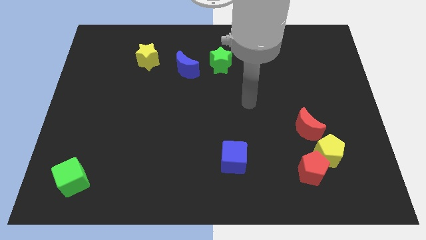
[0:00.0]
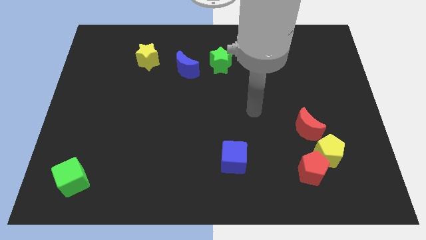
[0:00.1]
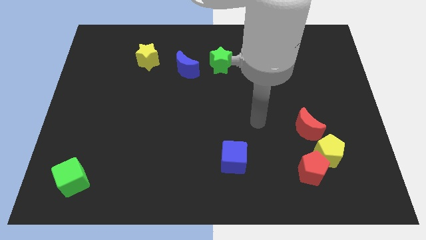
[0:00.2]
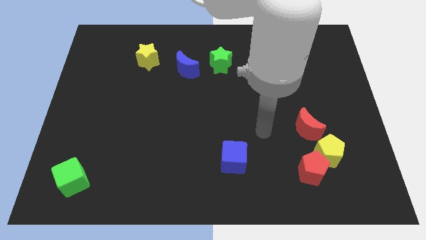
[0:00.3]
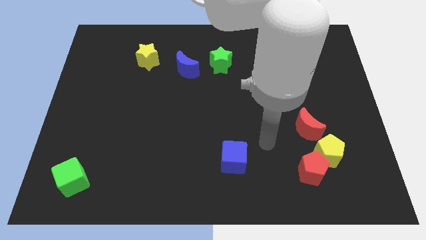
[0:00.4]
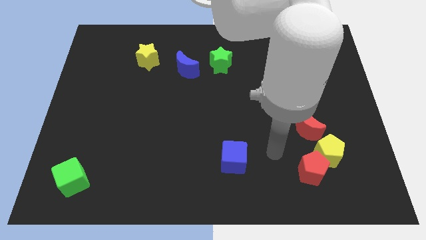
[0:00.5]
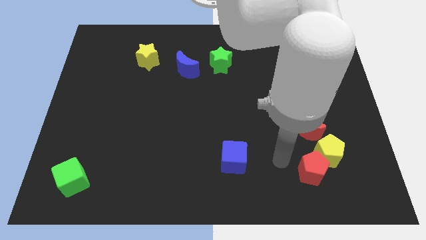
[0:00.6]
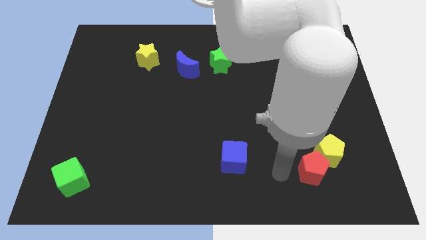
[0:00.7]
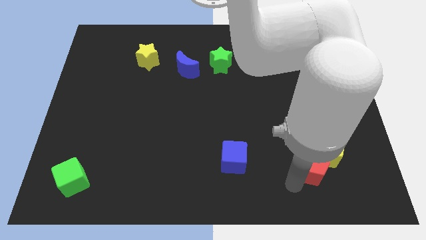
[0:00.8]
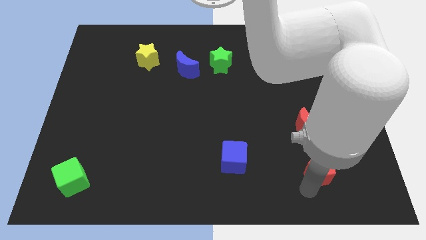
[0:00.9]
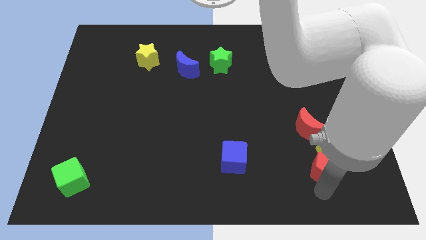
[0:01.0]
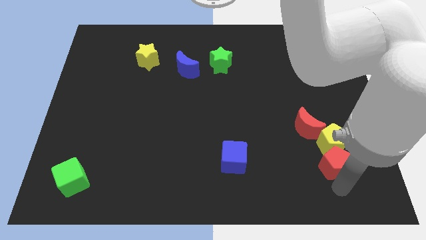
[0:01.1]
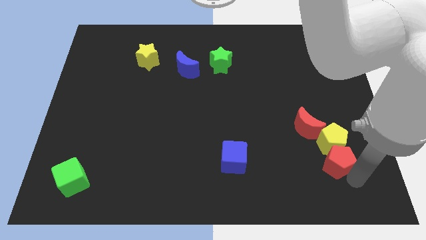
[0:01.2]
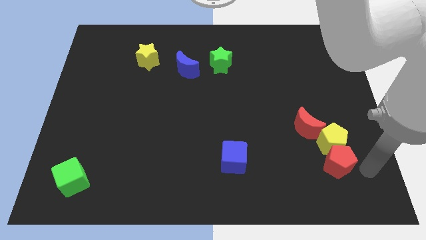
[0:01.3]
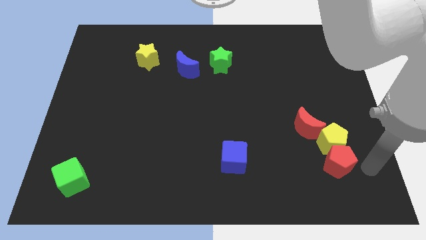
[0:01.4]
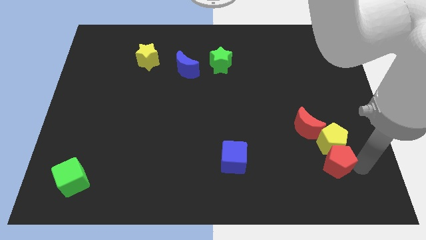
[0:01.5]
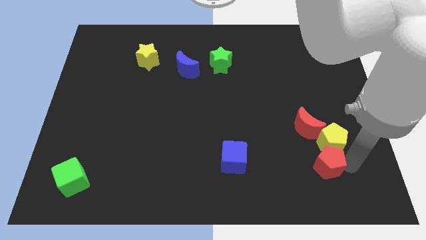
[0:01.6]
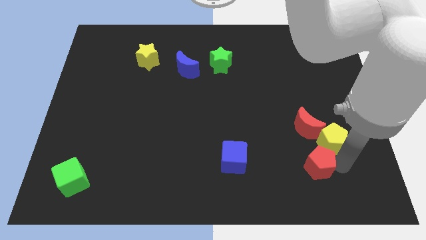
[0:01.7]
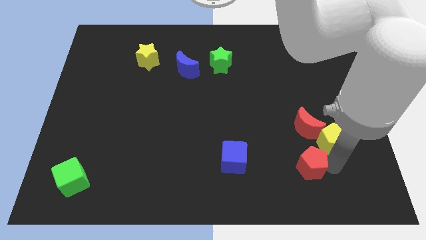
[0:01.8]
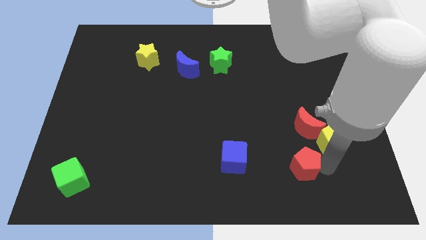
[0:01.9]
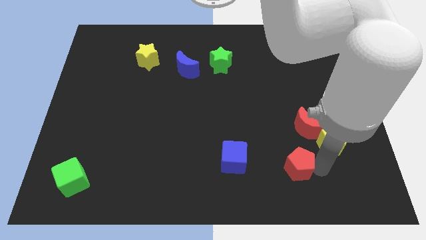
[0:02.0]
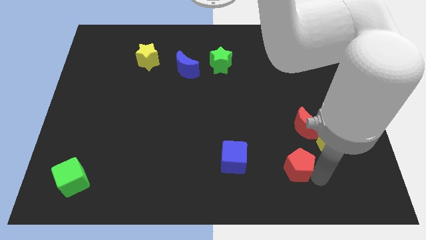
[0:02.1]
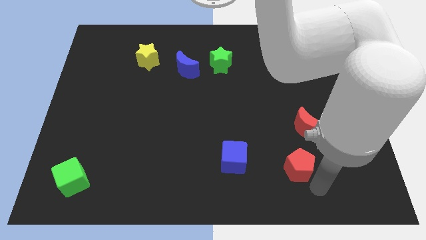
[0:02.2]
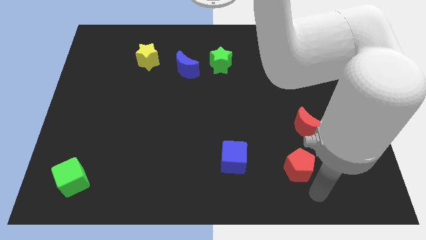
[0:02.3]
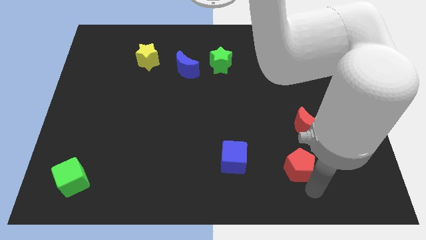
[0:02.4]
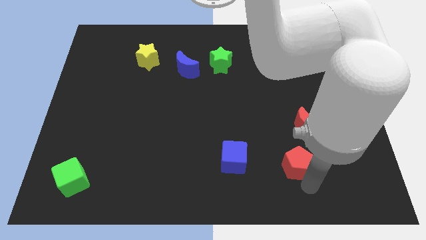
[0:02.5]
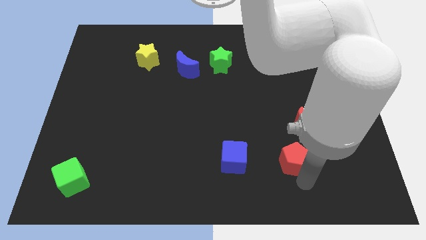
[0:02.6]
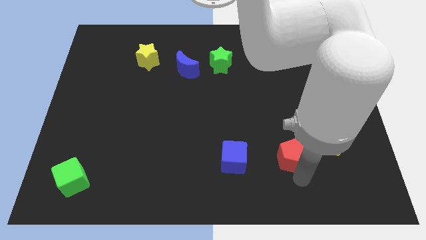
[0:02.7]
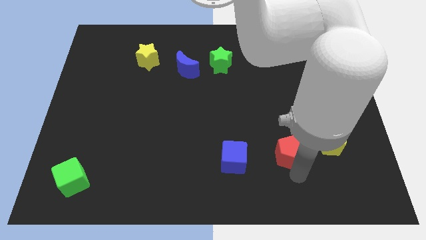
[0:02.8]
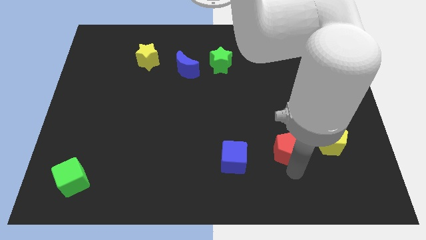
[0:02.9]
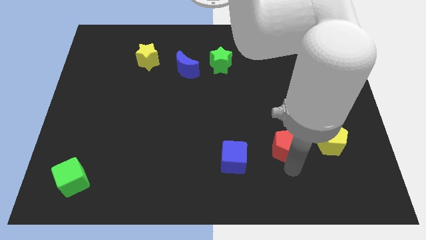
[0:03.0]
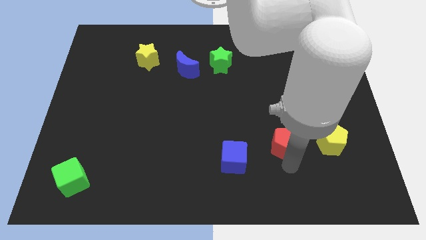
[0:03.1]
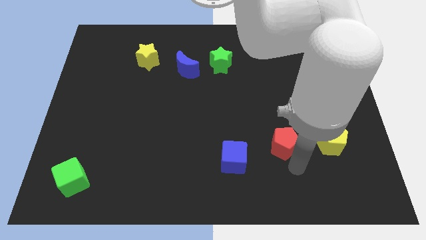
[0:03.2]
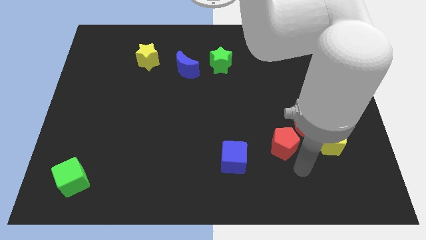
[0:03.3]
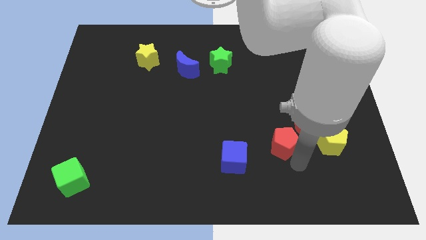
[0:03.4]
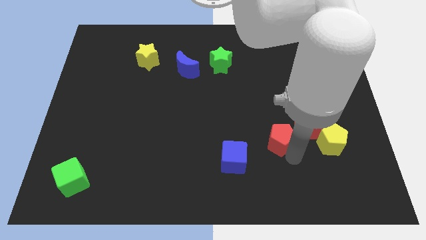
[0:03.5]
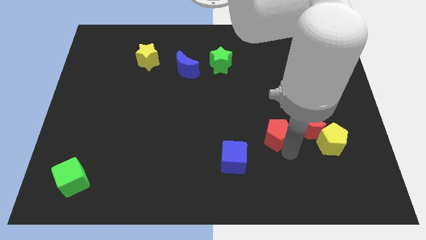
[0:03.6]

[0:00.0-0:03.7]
slightly move the red pentagon upwards

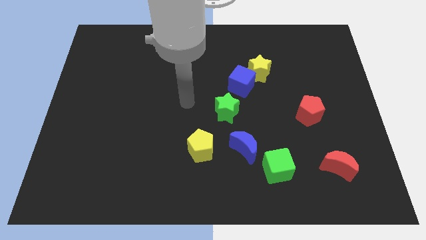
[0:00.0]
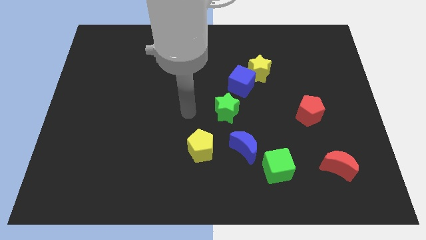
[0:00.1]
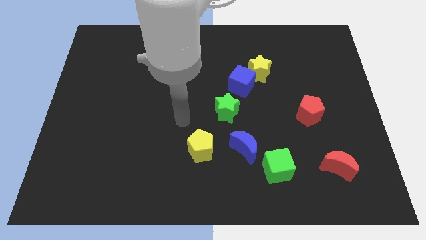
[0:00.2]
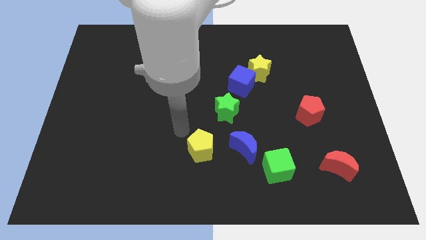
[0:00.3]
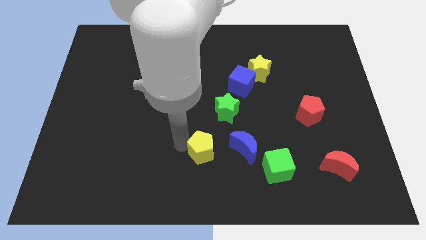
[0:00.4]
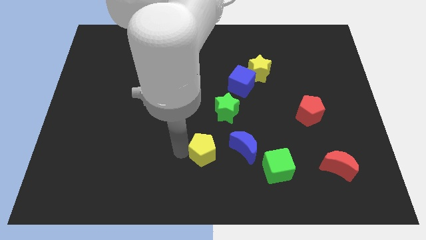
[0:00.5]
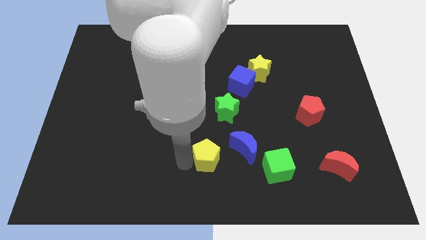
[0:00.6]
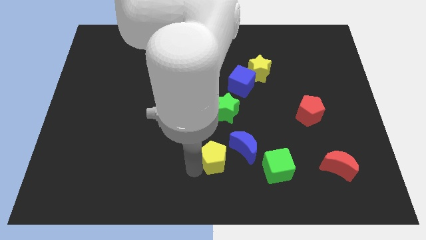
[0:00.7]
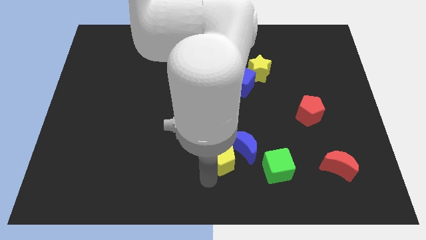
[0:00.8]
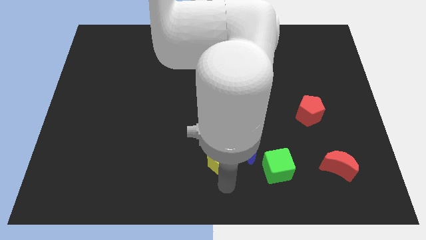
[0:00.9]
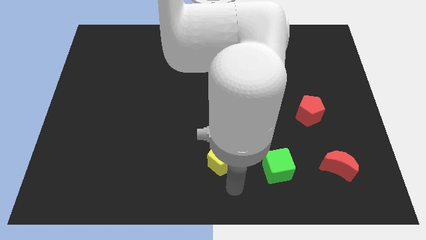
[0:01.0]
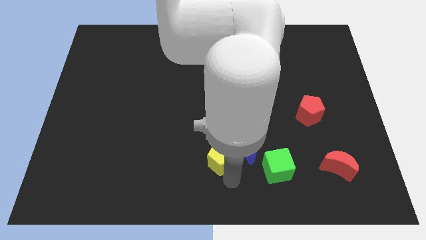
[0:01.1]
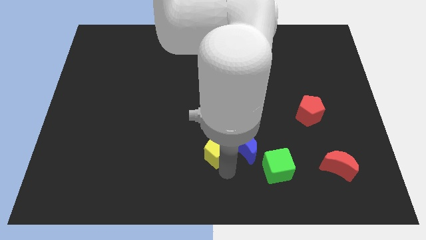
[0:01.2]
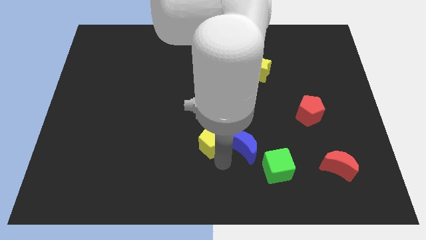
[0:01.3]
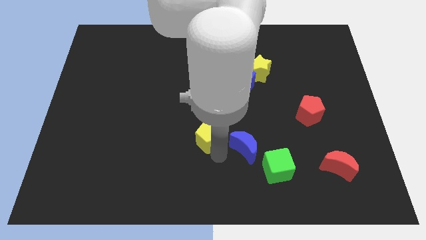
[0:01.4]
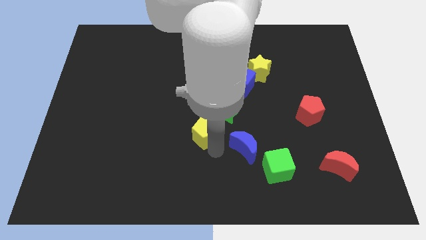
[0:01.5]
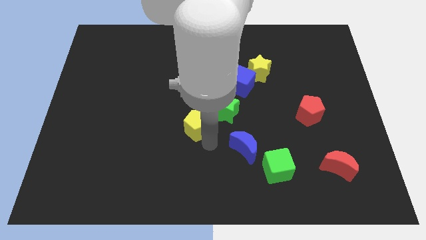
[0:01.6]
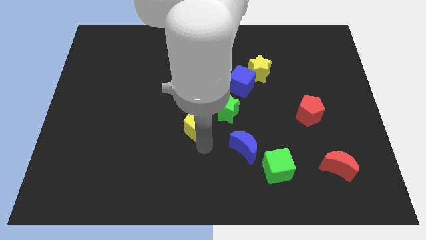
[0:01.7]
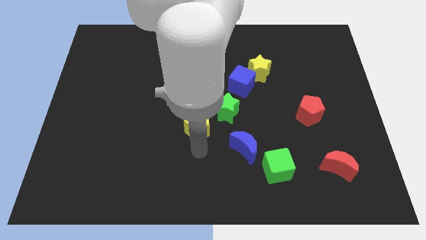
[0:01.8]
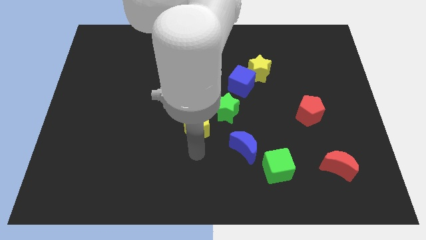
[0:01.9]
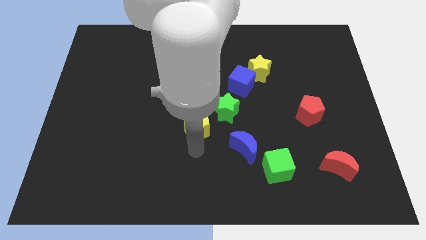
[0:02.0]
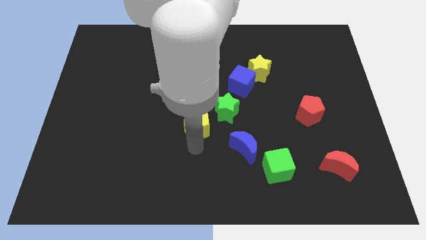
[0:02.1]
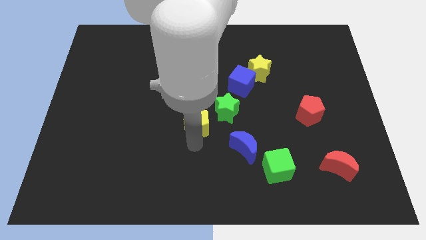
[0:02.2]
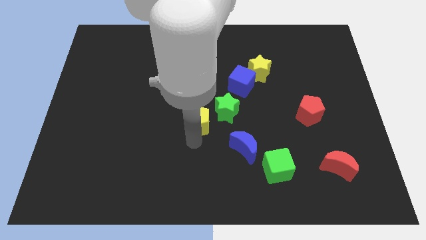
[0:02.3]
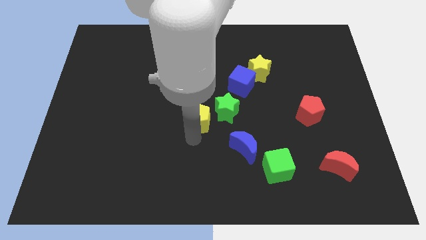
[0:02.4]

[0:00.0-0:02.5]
push the yellow pentagon somewhat up

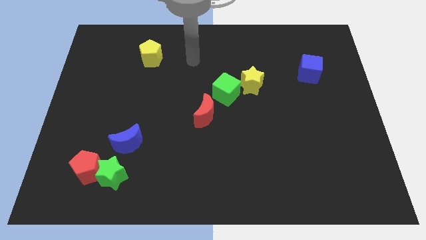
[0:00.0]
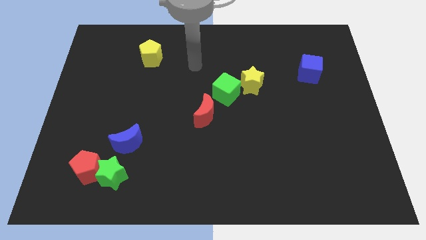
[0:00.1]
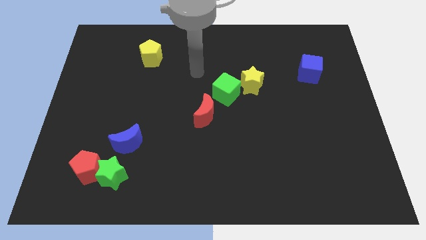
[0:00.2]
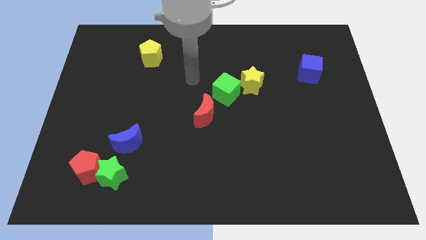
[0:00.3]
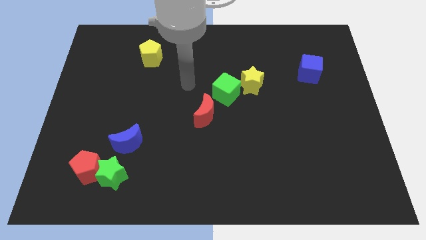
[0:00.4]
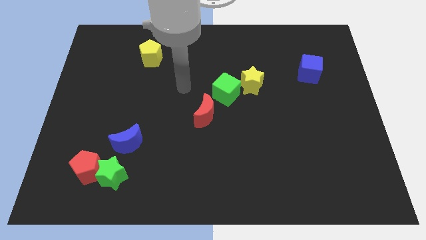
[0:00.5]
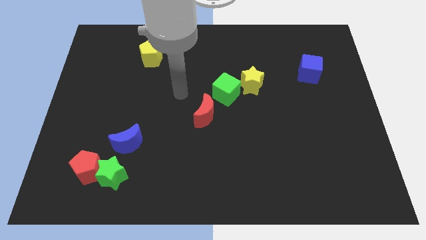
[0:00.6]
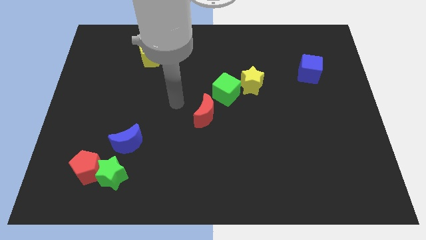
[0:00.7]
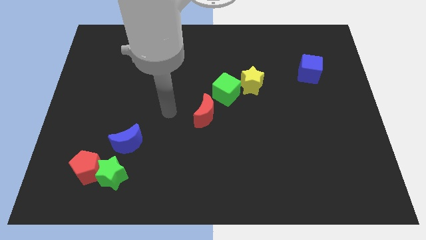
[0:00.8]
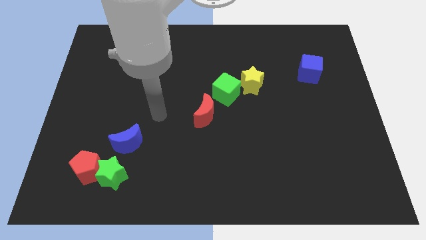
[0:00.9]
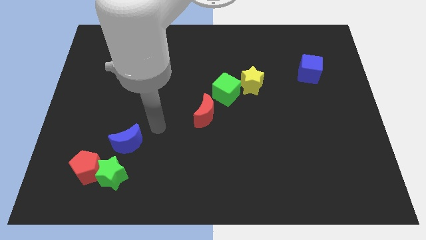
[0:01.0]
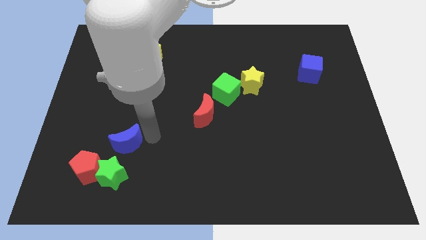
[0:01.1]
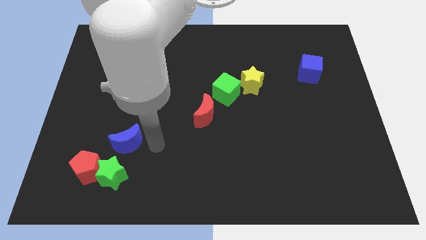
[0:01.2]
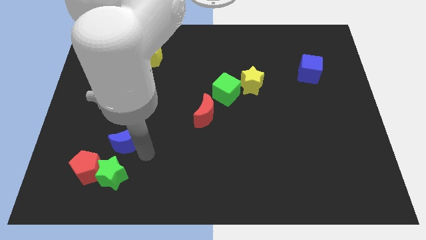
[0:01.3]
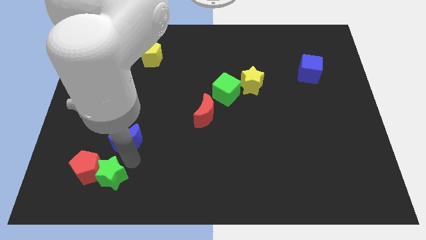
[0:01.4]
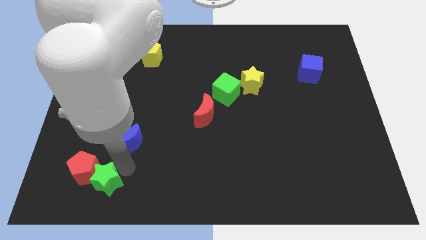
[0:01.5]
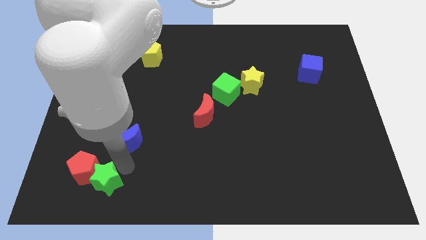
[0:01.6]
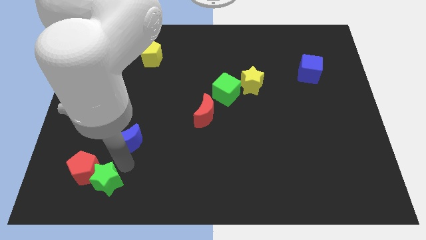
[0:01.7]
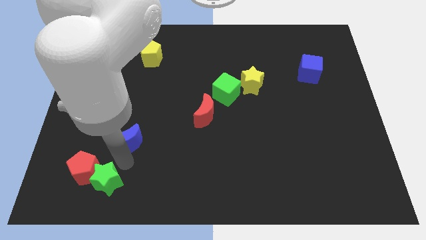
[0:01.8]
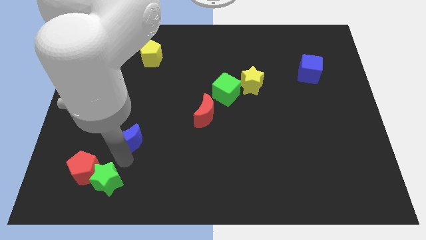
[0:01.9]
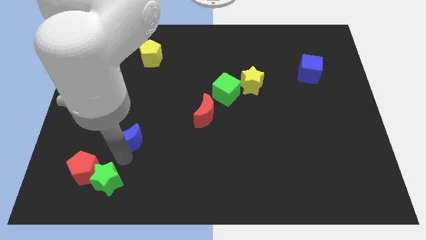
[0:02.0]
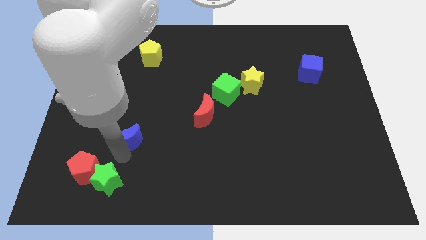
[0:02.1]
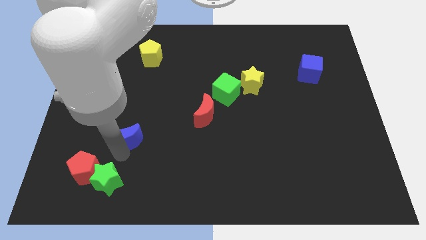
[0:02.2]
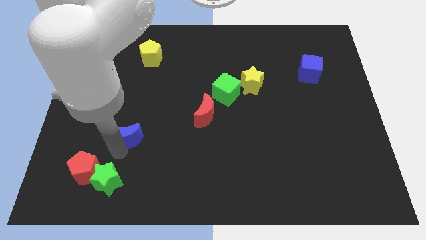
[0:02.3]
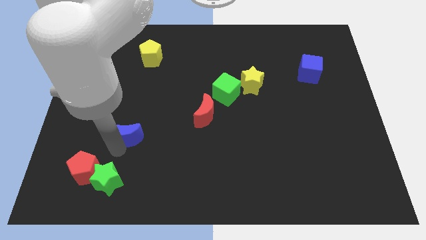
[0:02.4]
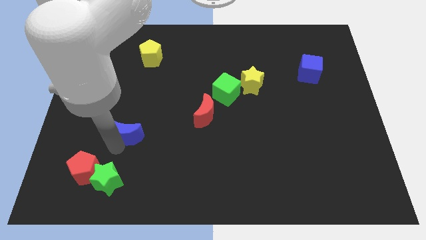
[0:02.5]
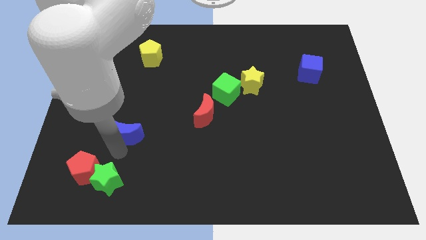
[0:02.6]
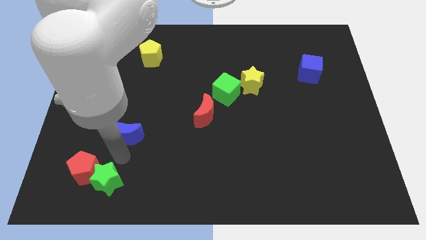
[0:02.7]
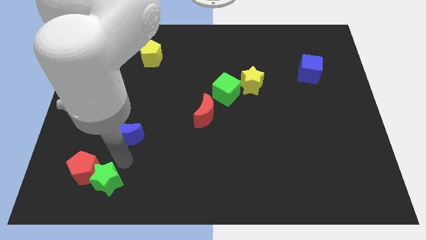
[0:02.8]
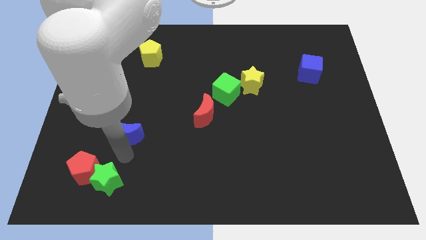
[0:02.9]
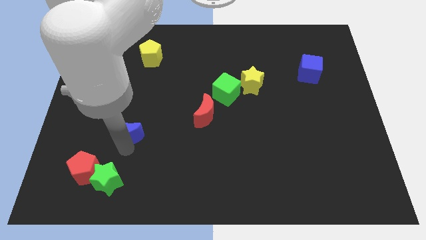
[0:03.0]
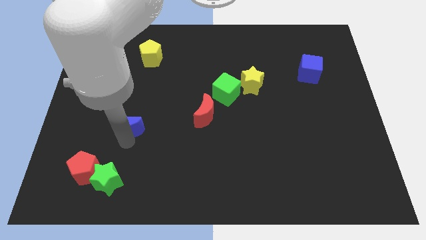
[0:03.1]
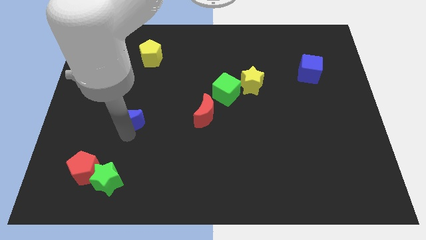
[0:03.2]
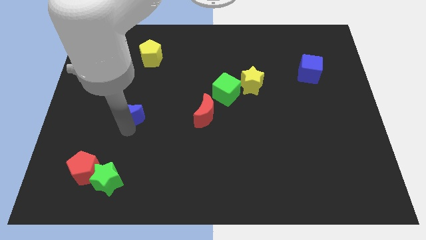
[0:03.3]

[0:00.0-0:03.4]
push the blue moon somewhat upwards
